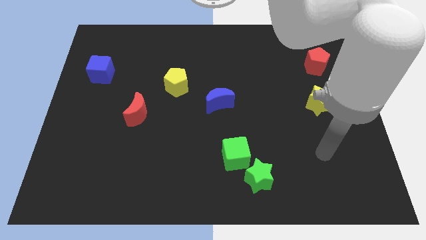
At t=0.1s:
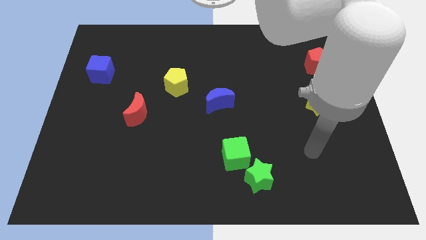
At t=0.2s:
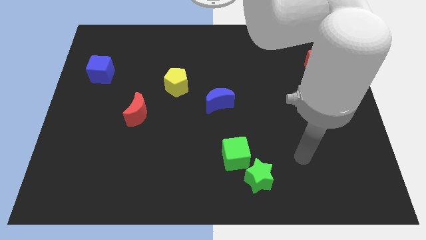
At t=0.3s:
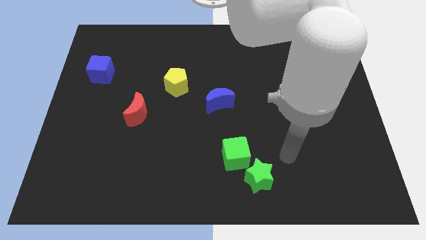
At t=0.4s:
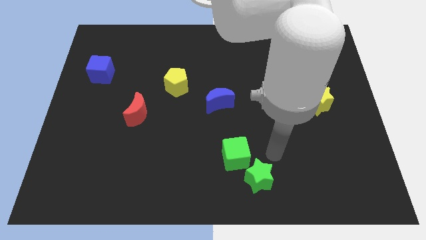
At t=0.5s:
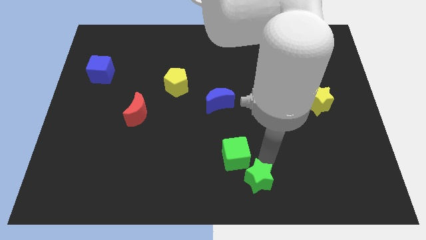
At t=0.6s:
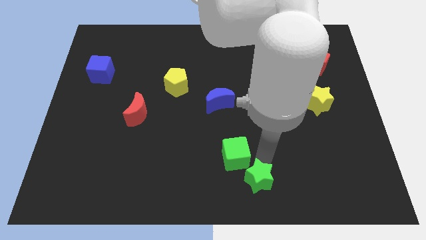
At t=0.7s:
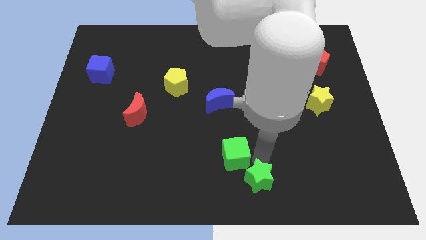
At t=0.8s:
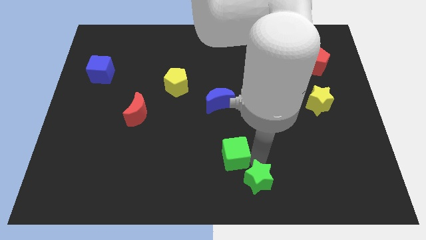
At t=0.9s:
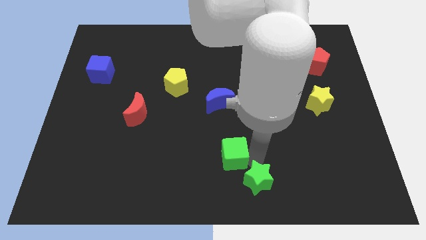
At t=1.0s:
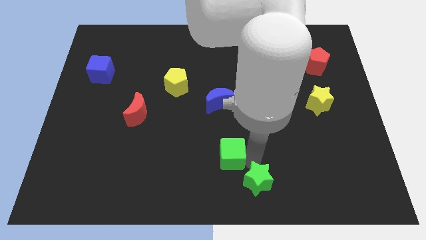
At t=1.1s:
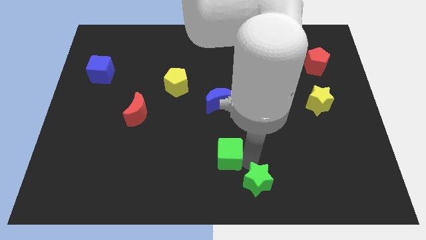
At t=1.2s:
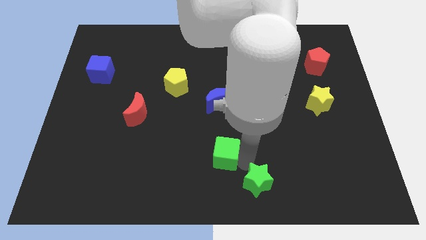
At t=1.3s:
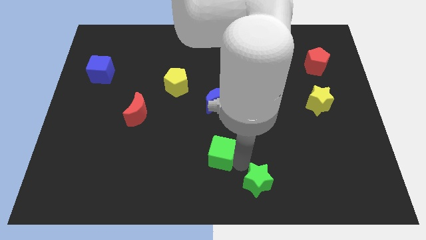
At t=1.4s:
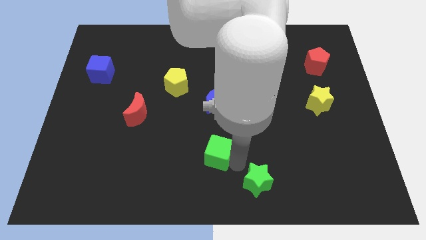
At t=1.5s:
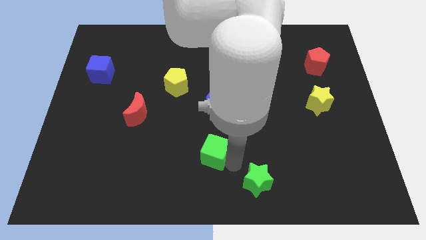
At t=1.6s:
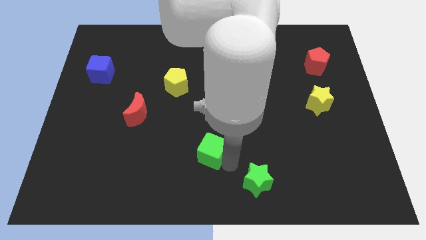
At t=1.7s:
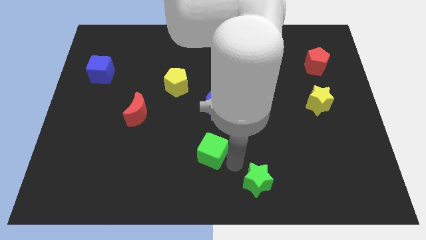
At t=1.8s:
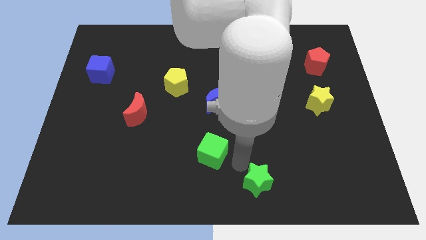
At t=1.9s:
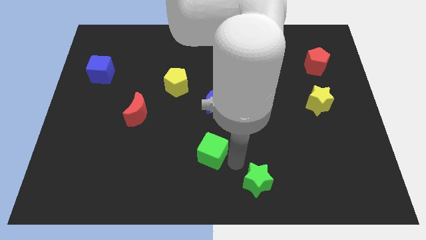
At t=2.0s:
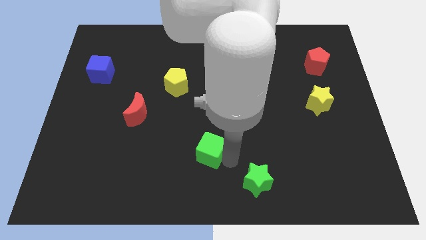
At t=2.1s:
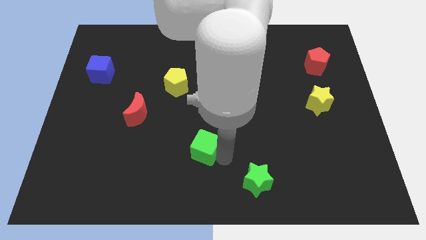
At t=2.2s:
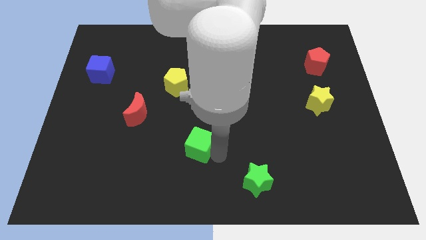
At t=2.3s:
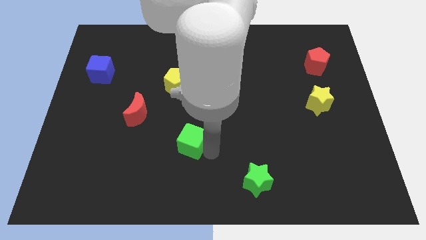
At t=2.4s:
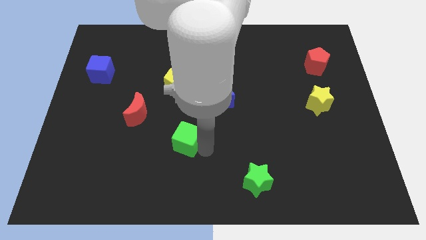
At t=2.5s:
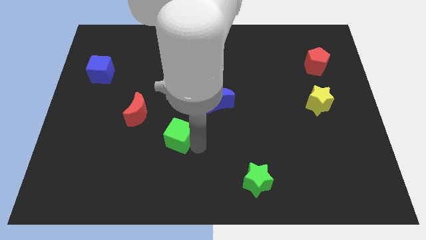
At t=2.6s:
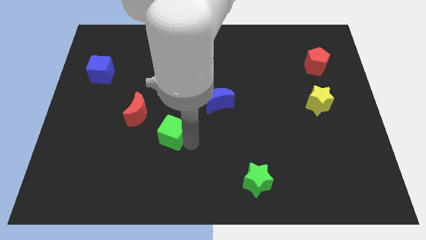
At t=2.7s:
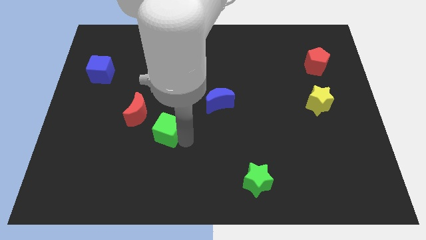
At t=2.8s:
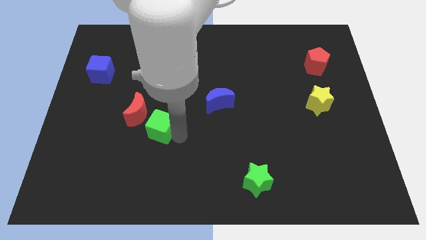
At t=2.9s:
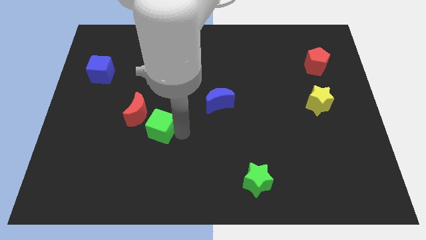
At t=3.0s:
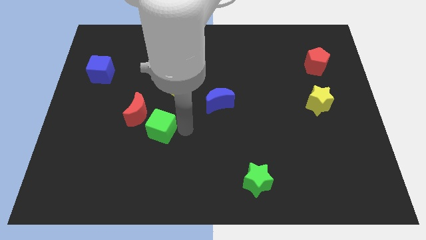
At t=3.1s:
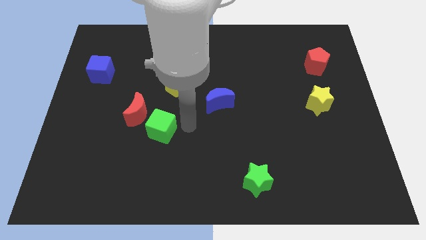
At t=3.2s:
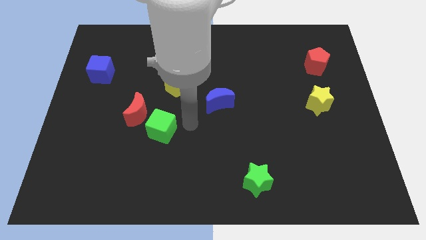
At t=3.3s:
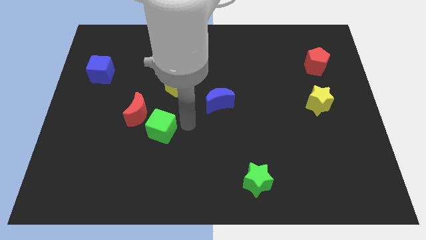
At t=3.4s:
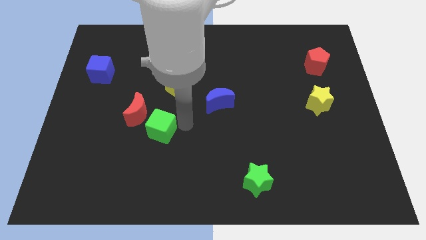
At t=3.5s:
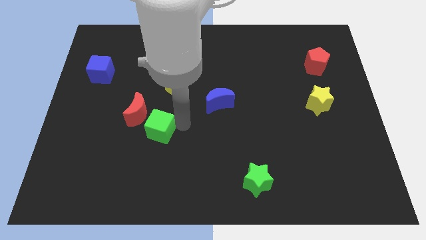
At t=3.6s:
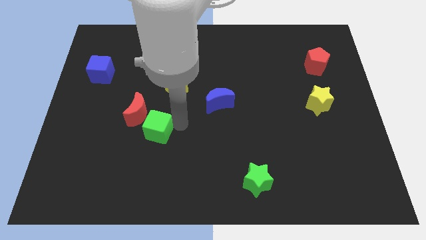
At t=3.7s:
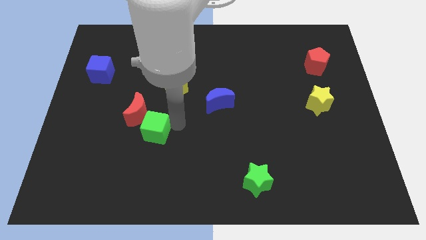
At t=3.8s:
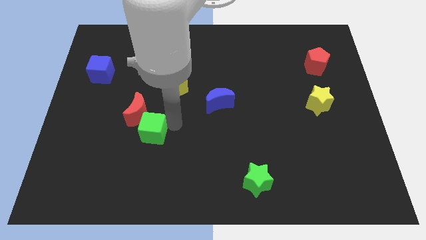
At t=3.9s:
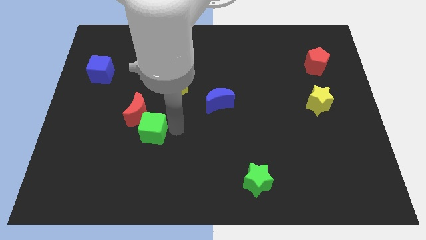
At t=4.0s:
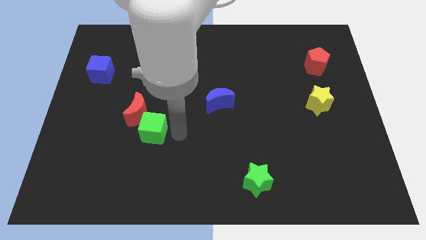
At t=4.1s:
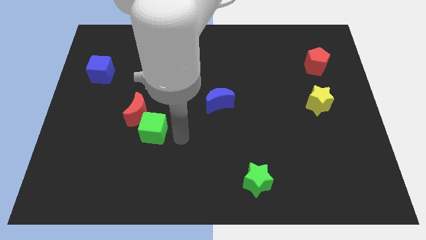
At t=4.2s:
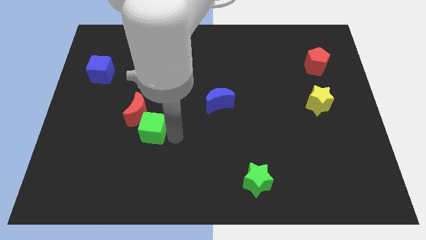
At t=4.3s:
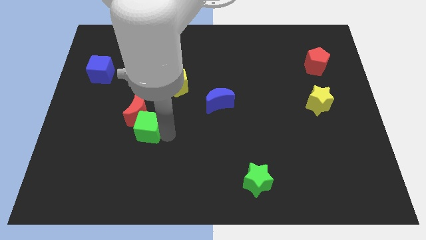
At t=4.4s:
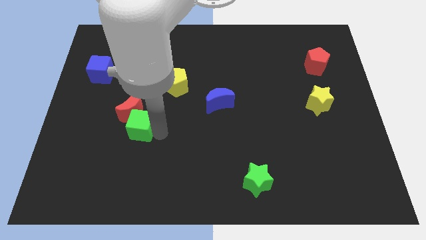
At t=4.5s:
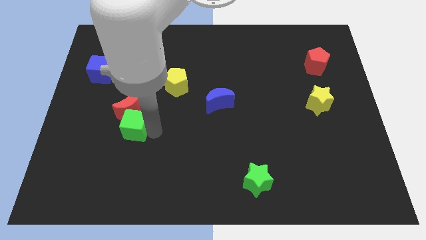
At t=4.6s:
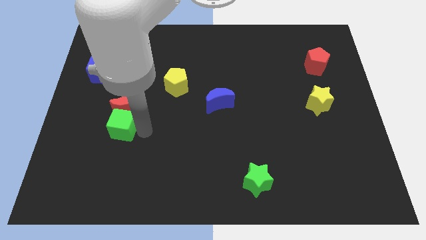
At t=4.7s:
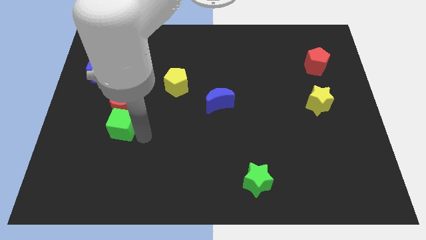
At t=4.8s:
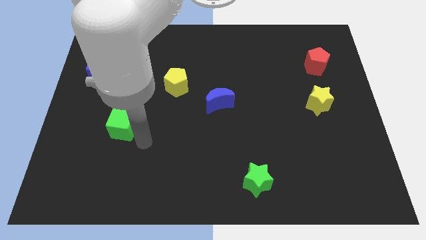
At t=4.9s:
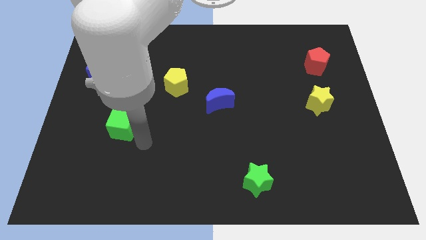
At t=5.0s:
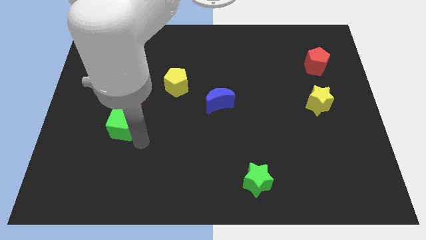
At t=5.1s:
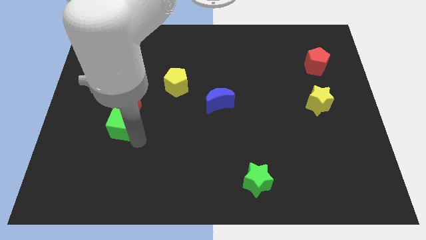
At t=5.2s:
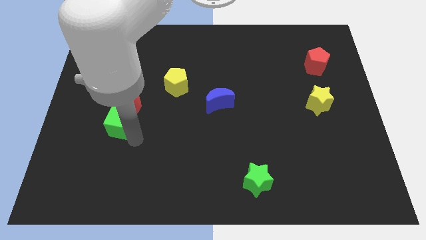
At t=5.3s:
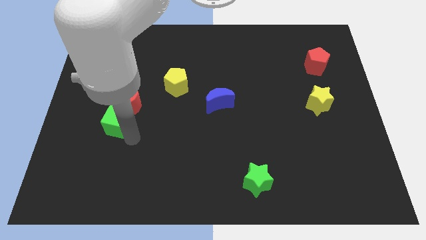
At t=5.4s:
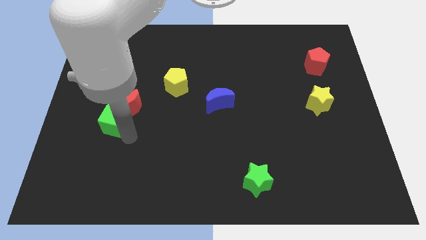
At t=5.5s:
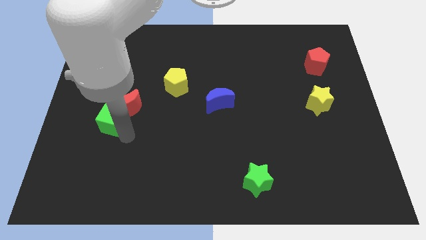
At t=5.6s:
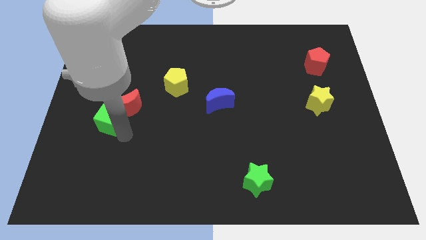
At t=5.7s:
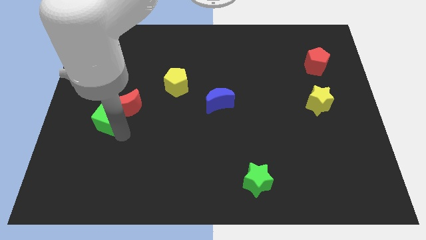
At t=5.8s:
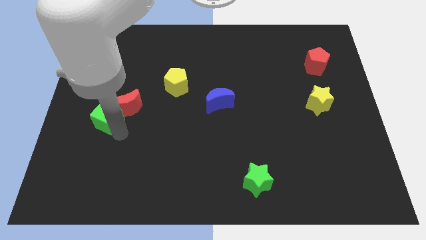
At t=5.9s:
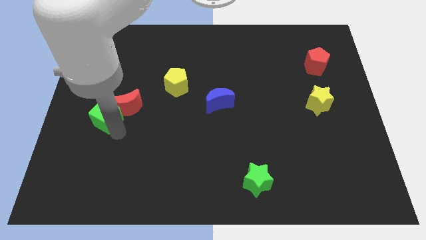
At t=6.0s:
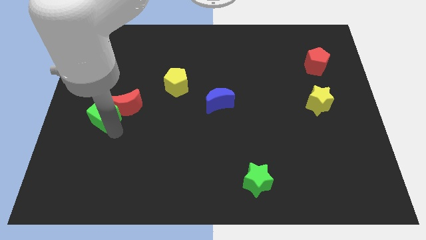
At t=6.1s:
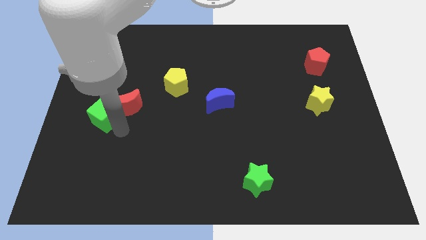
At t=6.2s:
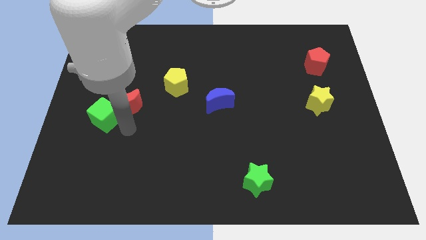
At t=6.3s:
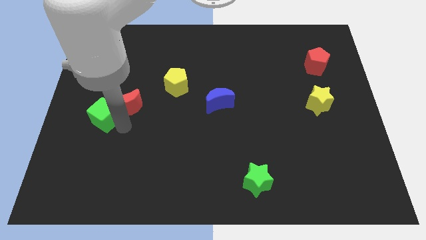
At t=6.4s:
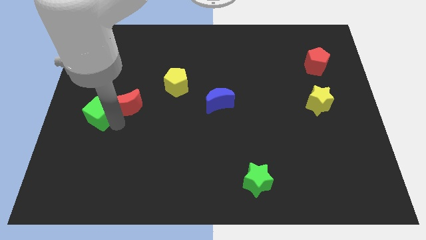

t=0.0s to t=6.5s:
move the green cube to the left side of the board

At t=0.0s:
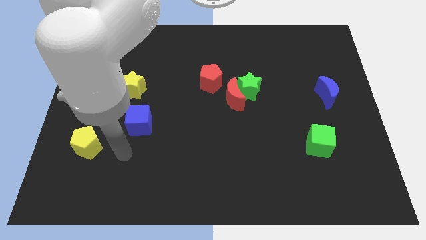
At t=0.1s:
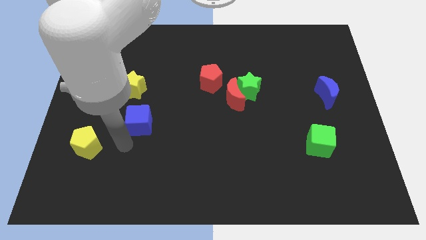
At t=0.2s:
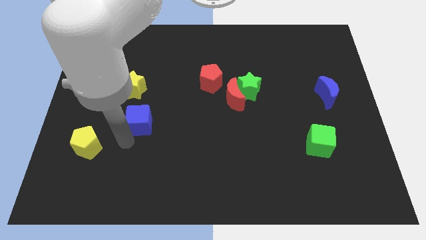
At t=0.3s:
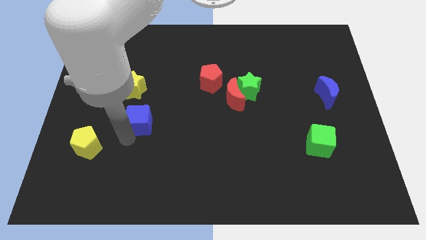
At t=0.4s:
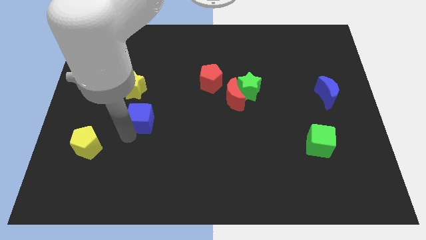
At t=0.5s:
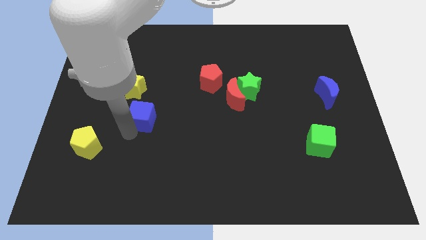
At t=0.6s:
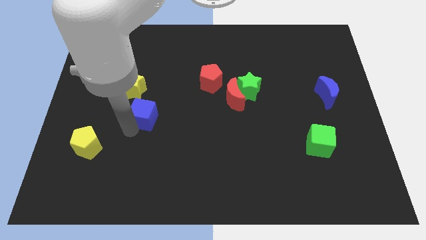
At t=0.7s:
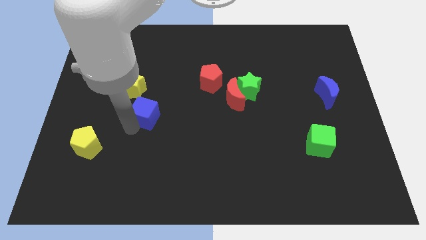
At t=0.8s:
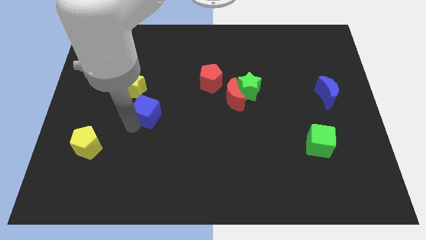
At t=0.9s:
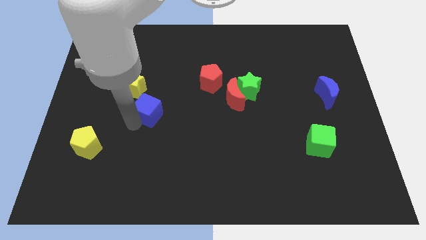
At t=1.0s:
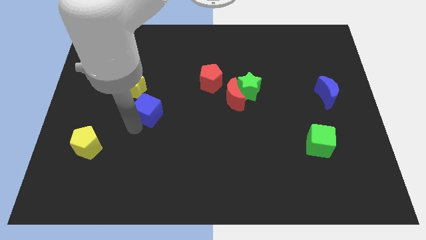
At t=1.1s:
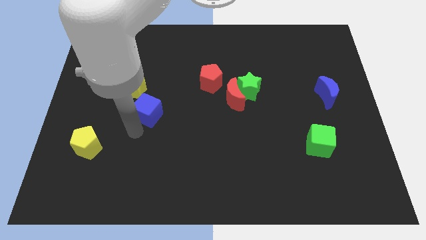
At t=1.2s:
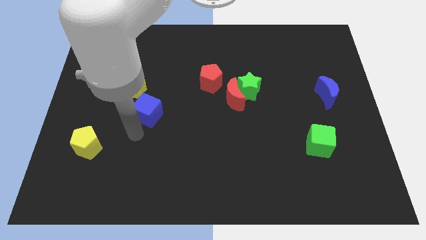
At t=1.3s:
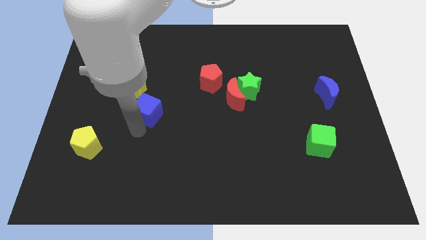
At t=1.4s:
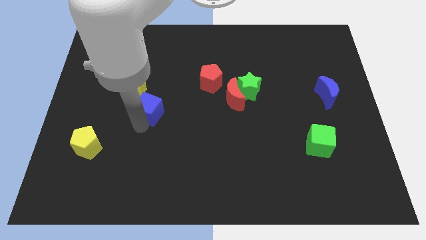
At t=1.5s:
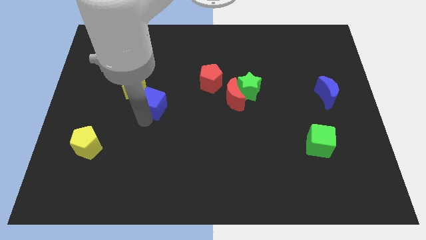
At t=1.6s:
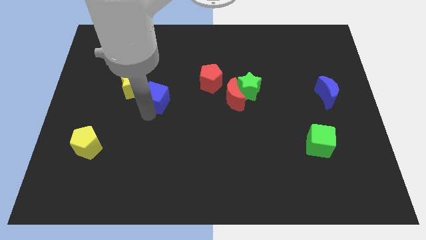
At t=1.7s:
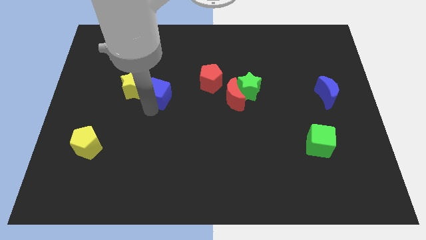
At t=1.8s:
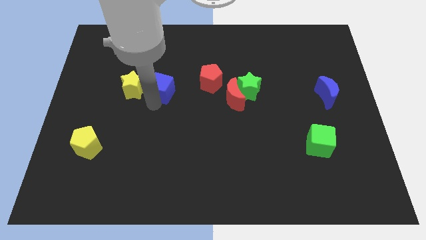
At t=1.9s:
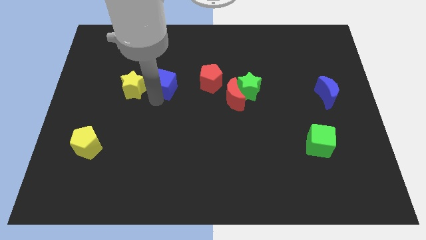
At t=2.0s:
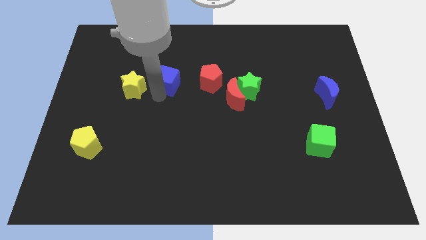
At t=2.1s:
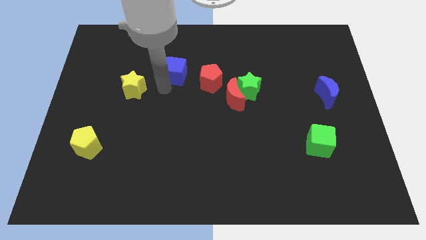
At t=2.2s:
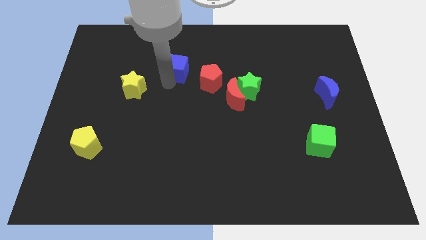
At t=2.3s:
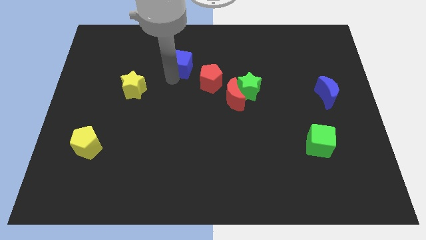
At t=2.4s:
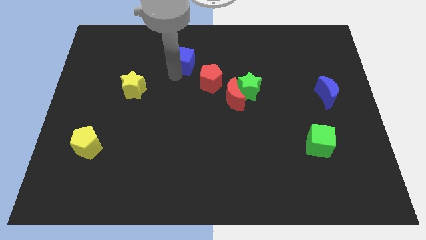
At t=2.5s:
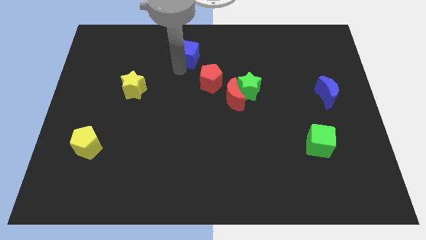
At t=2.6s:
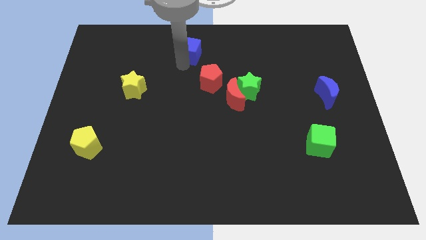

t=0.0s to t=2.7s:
move the blue cube to the towards your base
